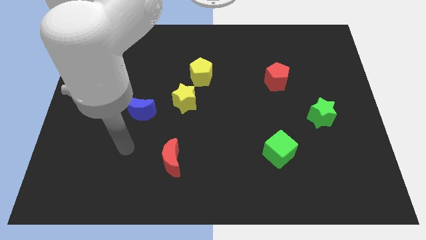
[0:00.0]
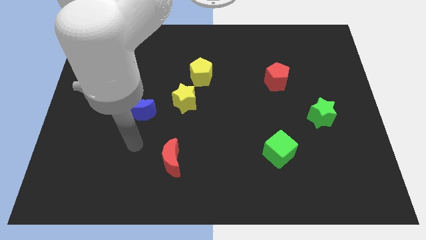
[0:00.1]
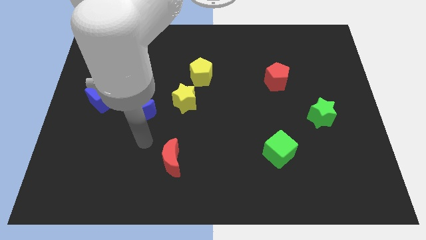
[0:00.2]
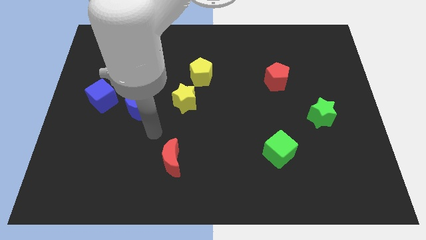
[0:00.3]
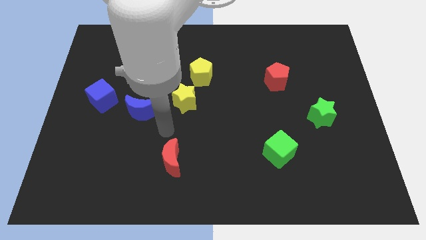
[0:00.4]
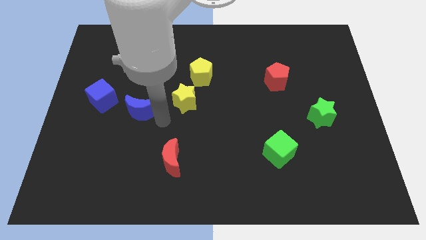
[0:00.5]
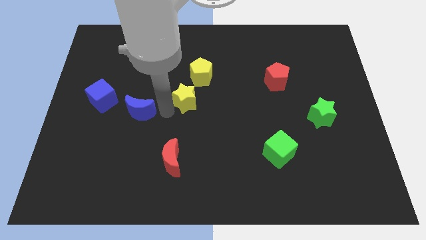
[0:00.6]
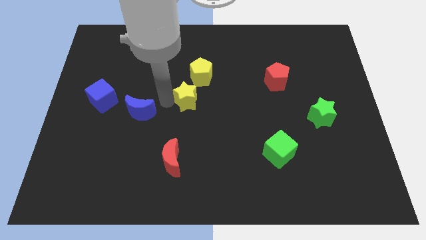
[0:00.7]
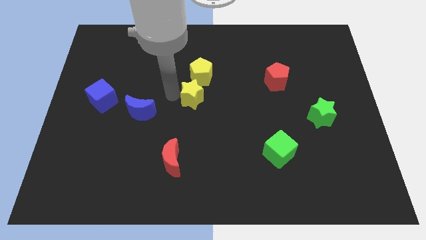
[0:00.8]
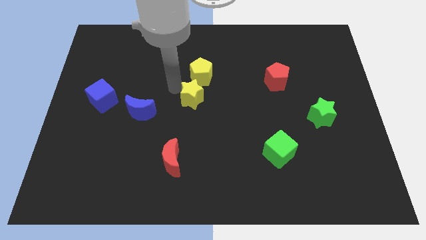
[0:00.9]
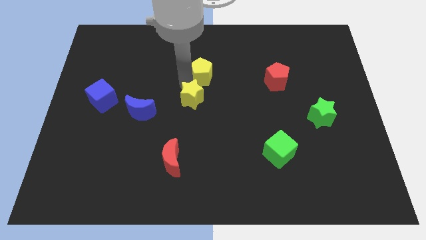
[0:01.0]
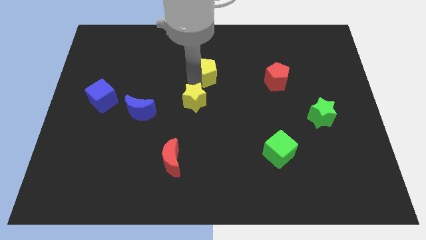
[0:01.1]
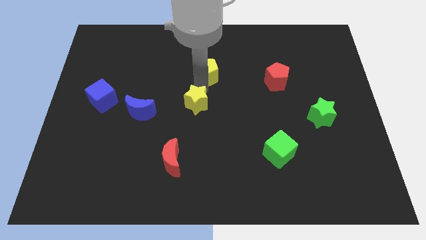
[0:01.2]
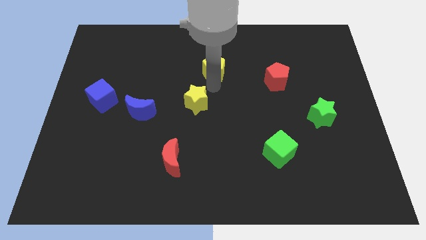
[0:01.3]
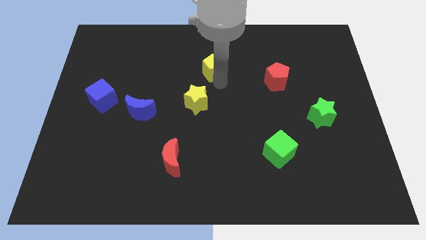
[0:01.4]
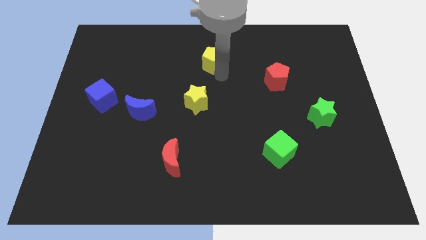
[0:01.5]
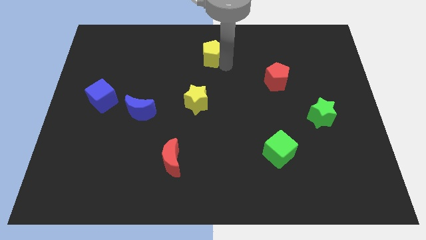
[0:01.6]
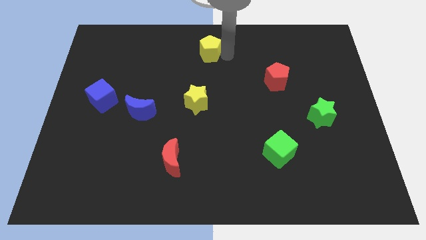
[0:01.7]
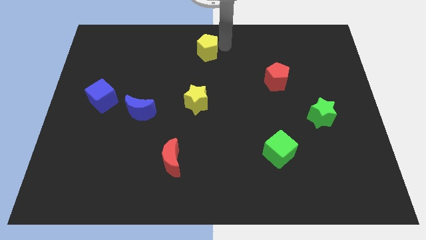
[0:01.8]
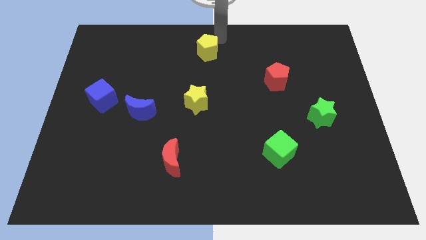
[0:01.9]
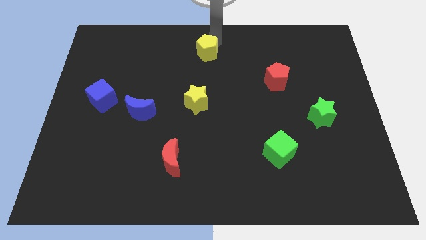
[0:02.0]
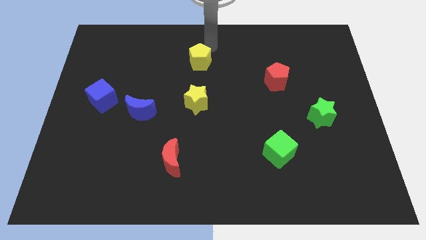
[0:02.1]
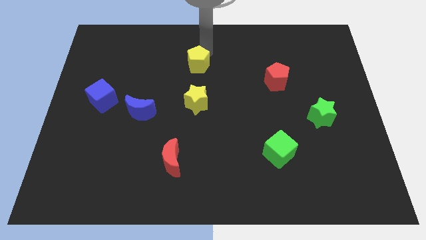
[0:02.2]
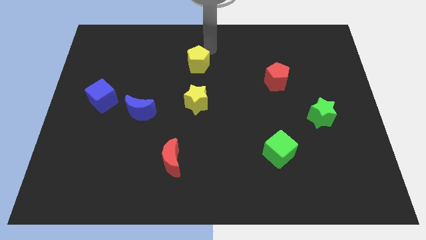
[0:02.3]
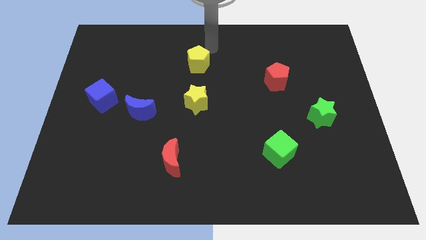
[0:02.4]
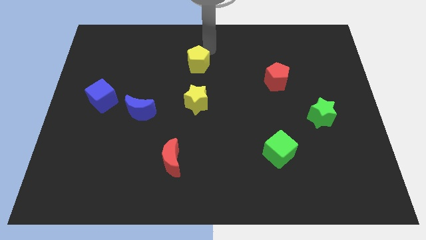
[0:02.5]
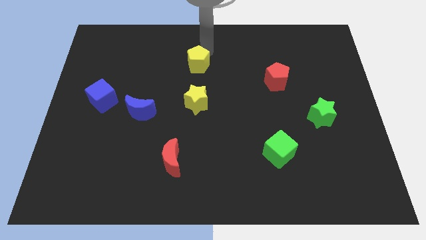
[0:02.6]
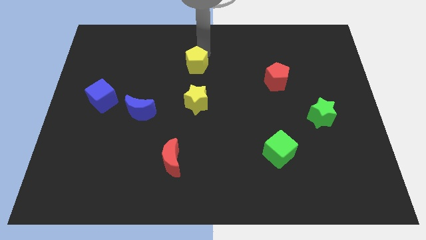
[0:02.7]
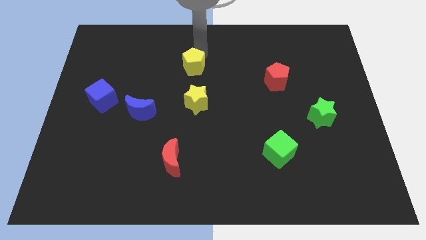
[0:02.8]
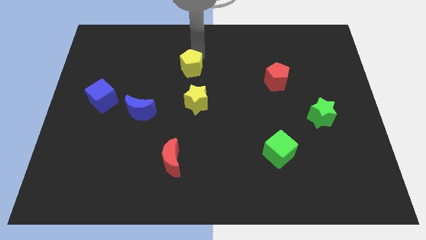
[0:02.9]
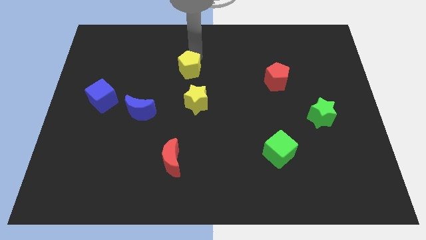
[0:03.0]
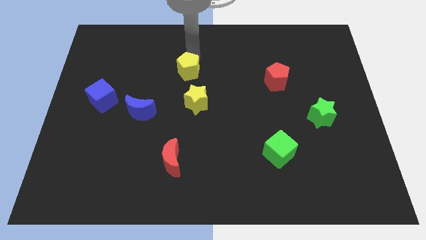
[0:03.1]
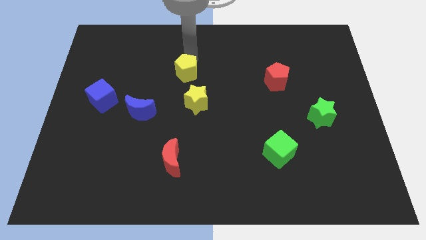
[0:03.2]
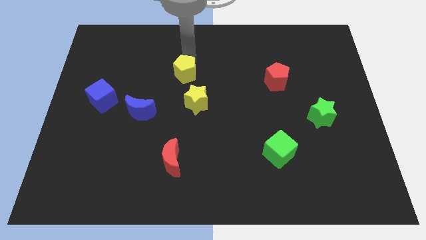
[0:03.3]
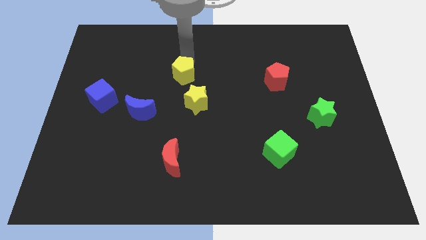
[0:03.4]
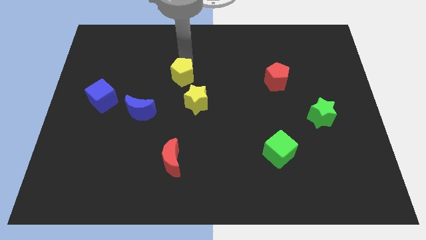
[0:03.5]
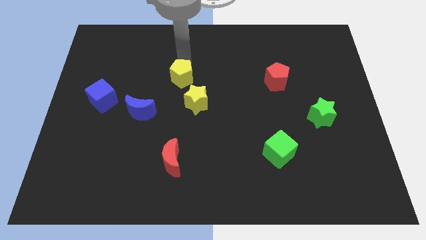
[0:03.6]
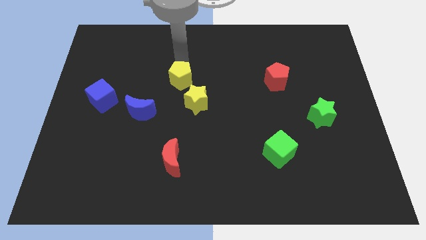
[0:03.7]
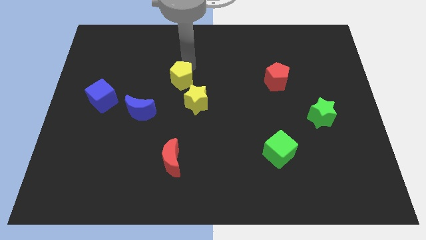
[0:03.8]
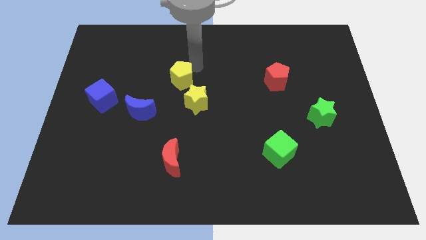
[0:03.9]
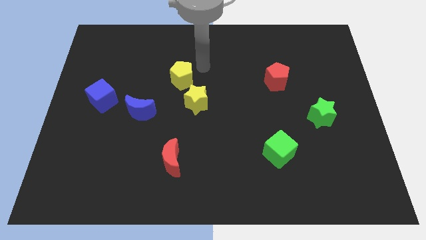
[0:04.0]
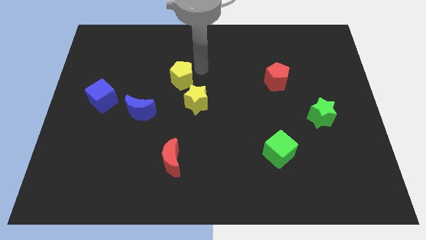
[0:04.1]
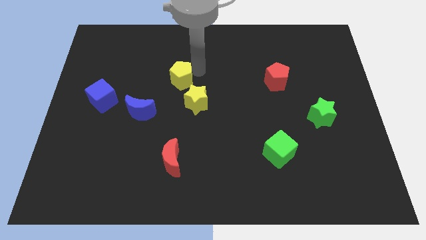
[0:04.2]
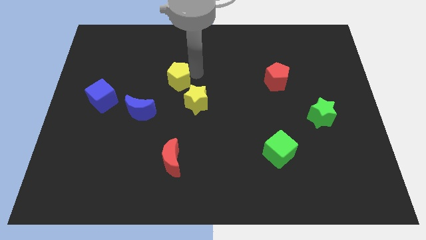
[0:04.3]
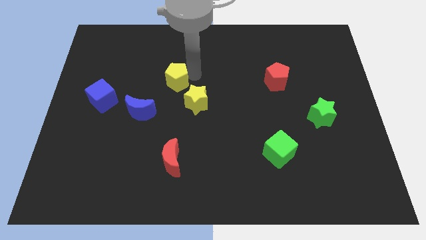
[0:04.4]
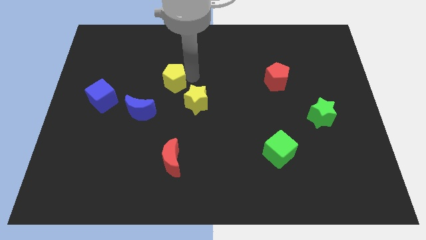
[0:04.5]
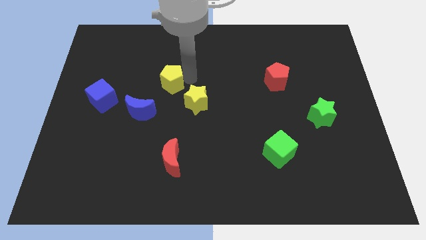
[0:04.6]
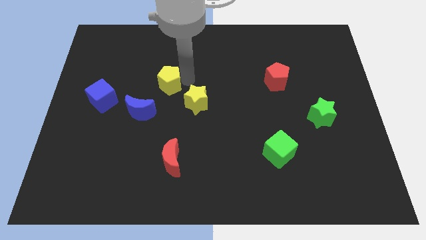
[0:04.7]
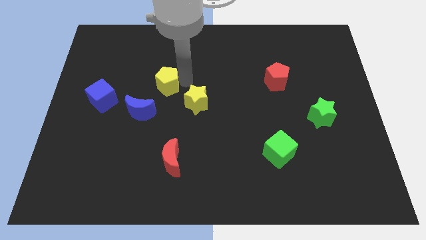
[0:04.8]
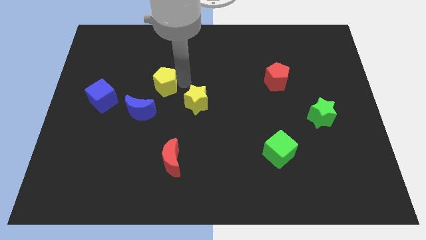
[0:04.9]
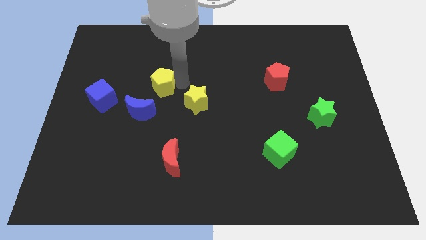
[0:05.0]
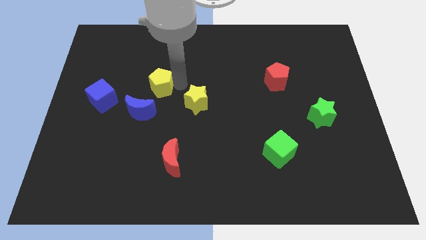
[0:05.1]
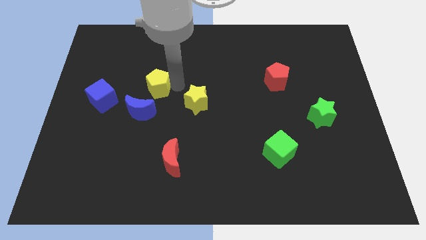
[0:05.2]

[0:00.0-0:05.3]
slide the yellow pentagon left of the yellow star

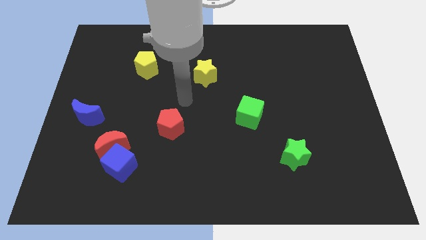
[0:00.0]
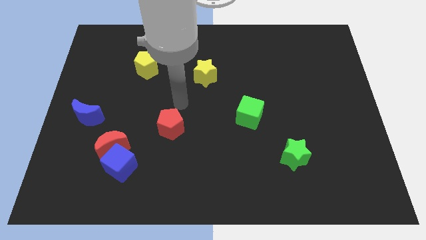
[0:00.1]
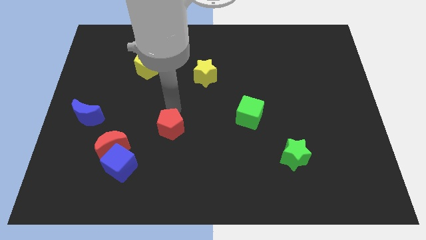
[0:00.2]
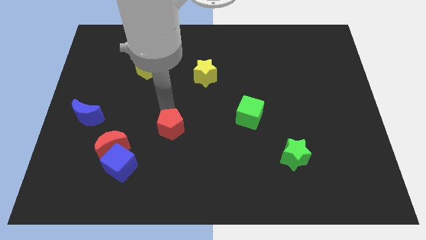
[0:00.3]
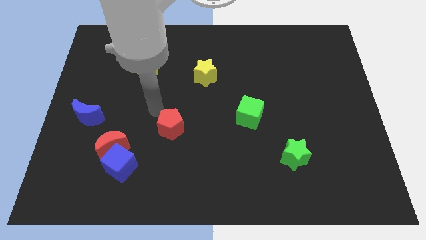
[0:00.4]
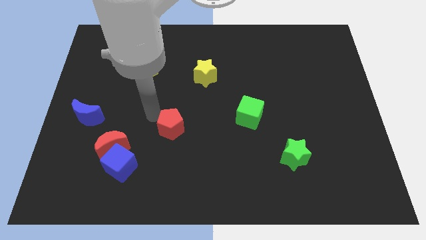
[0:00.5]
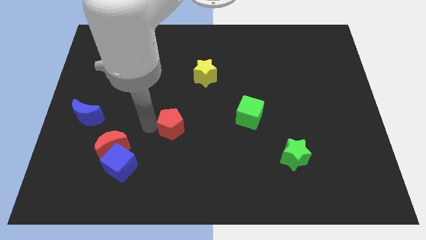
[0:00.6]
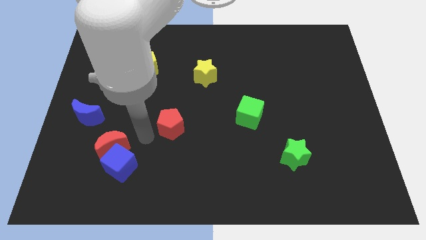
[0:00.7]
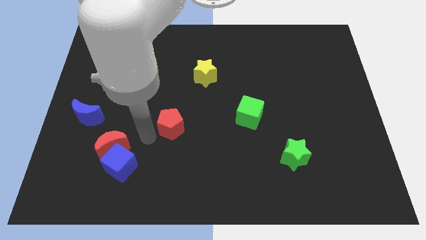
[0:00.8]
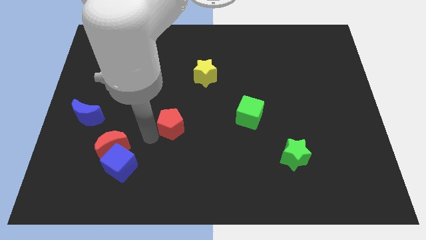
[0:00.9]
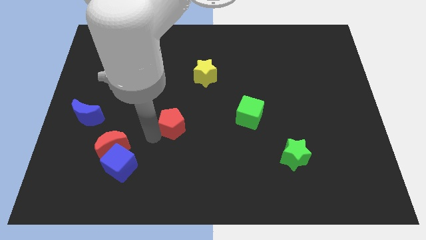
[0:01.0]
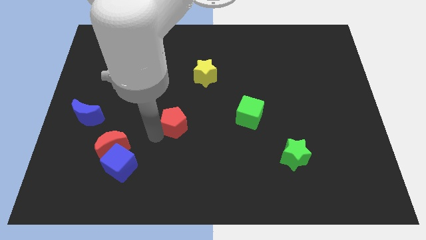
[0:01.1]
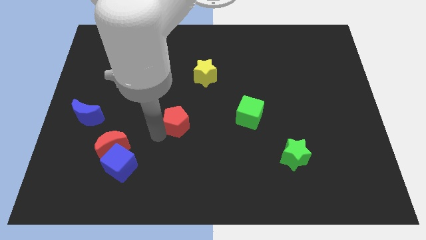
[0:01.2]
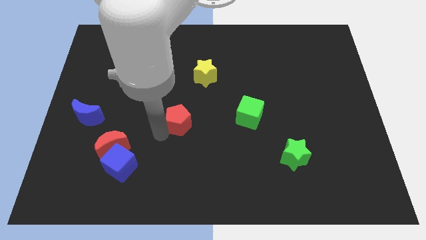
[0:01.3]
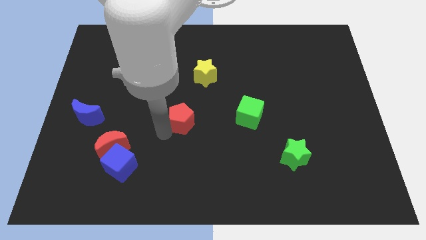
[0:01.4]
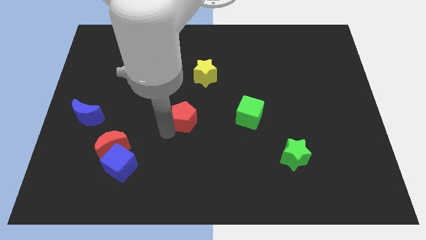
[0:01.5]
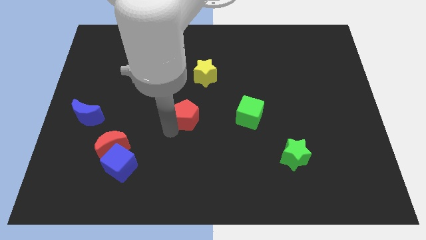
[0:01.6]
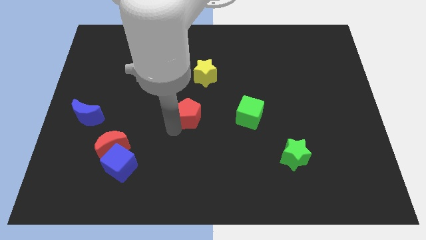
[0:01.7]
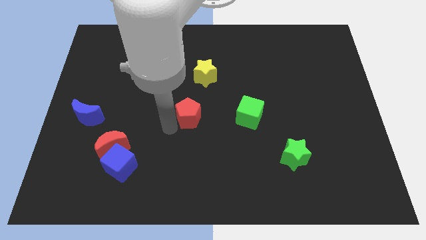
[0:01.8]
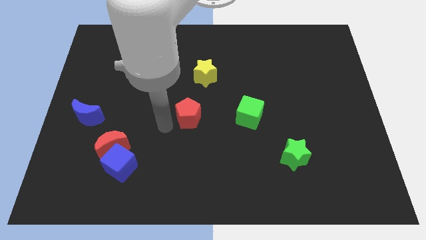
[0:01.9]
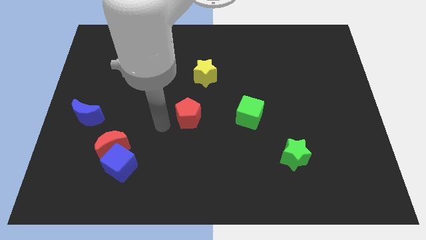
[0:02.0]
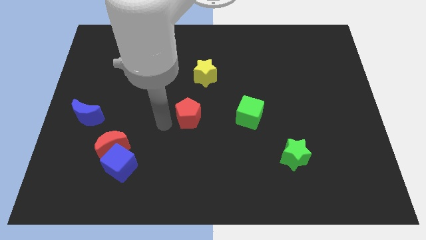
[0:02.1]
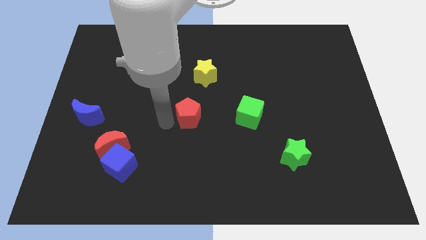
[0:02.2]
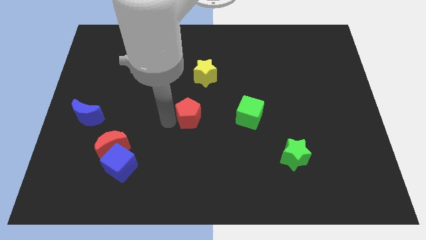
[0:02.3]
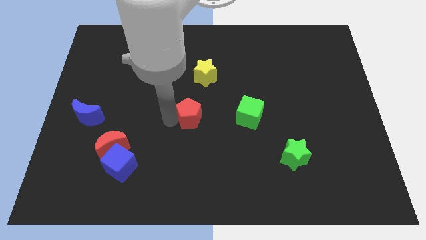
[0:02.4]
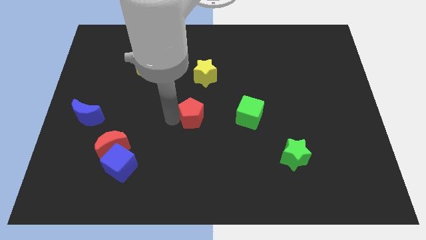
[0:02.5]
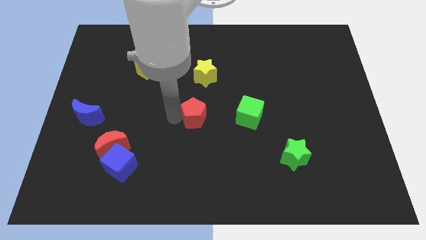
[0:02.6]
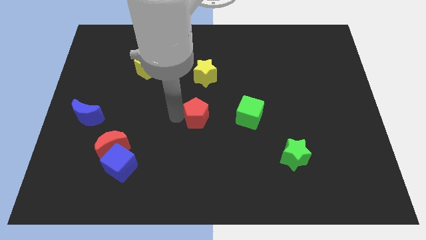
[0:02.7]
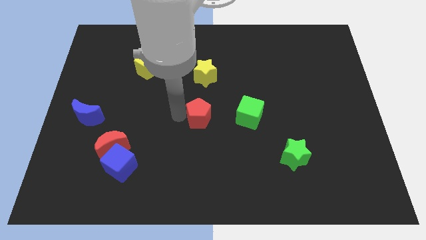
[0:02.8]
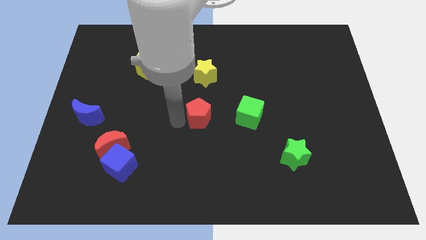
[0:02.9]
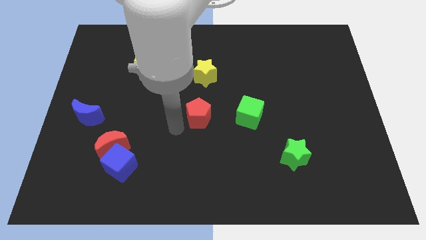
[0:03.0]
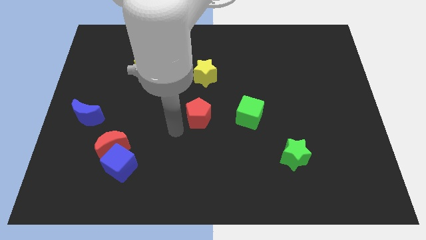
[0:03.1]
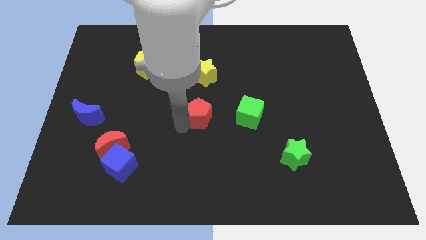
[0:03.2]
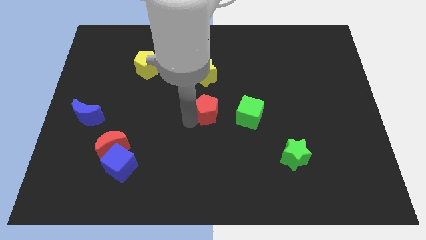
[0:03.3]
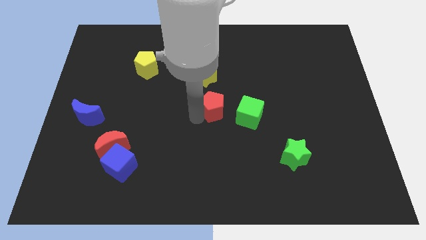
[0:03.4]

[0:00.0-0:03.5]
move the red pentagon diagonally up and to the left of the green cube
